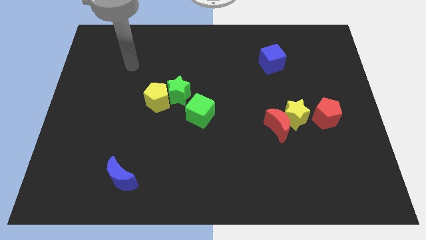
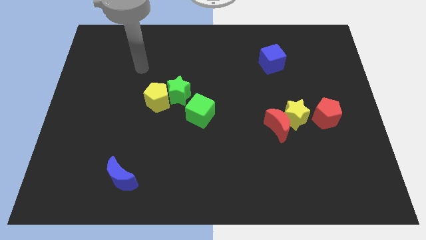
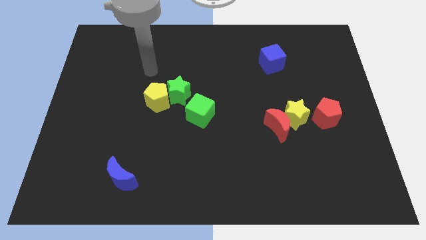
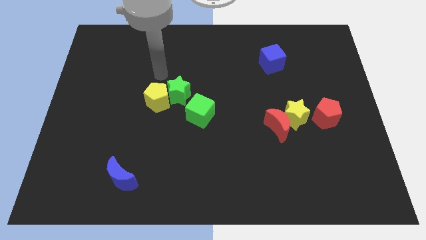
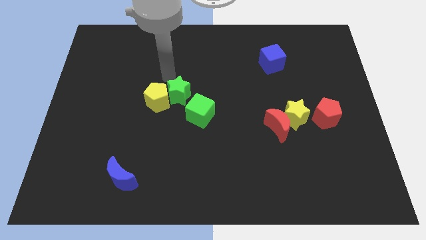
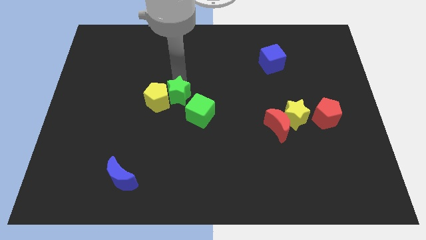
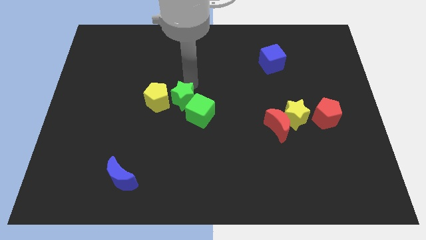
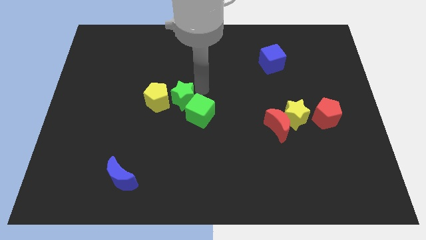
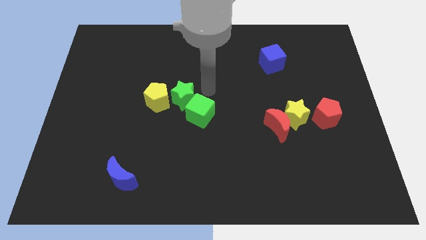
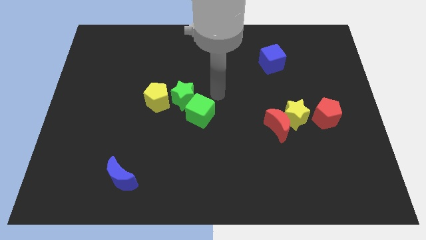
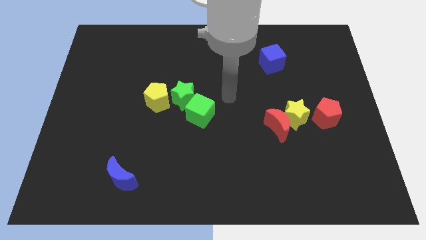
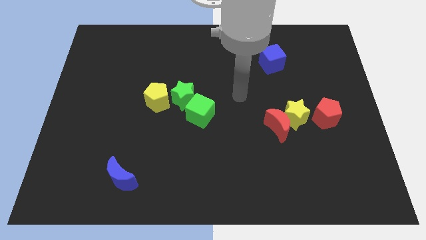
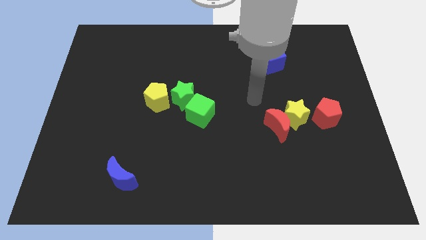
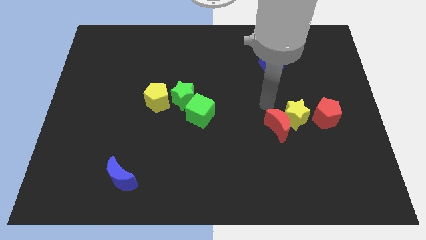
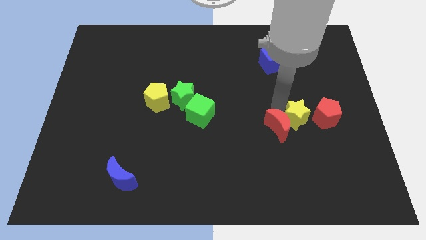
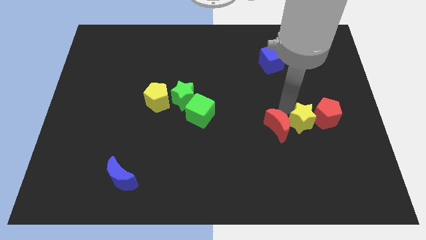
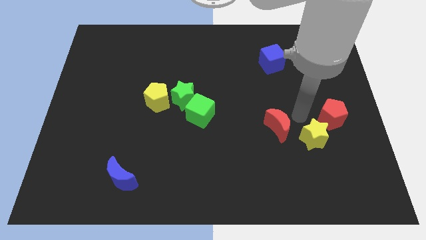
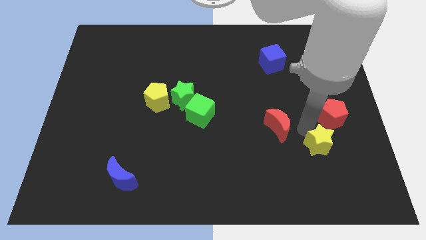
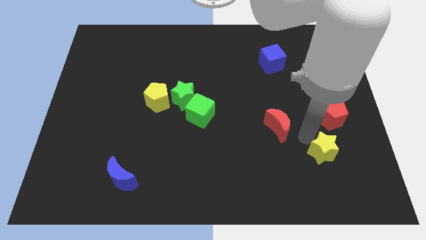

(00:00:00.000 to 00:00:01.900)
move the red moon away from the yellow star

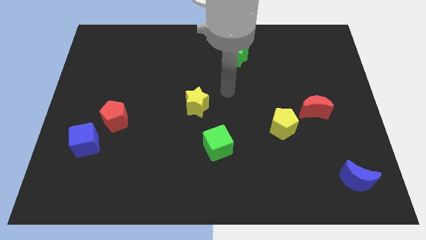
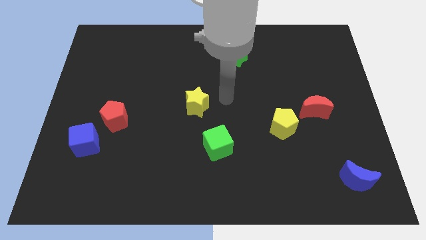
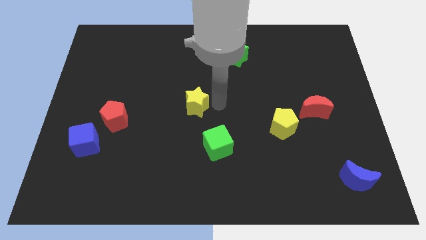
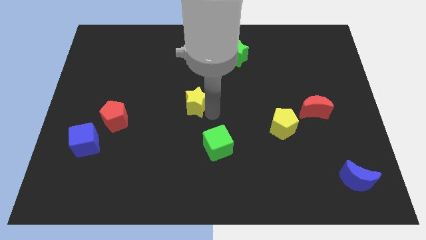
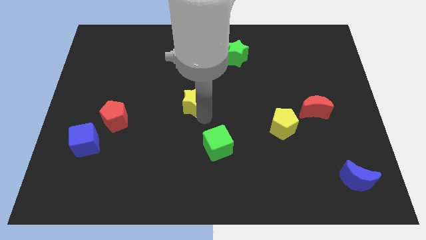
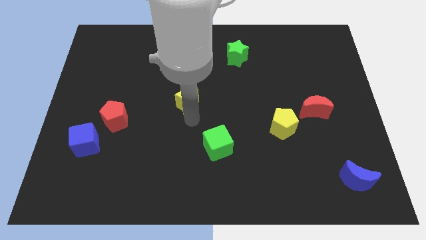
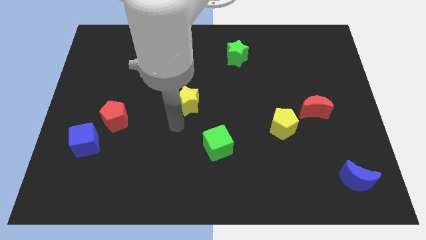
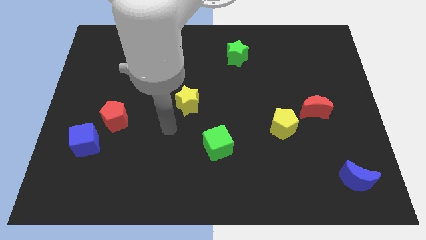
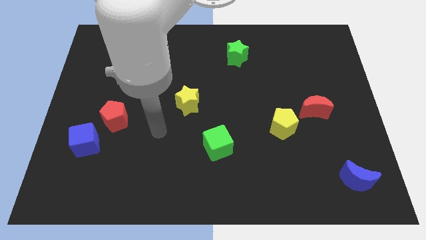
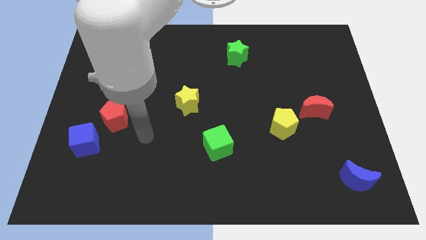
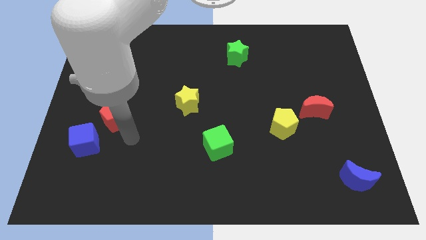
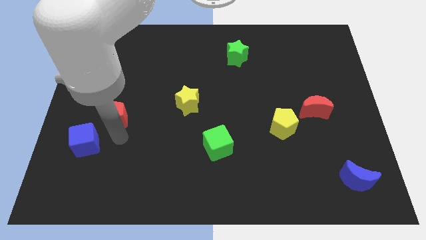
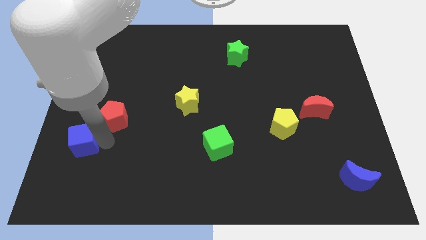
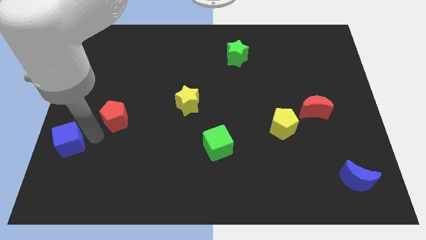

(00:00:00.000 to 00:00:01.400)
pull the red pentagon apart from the blue cube

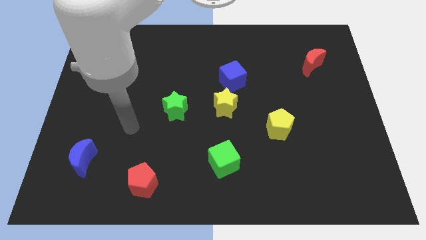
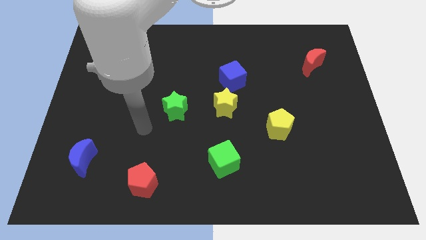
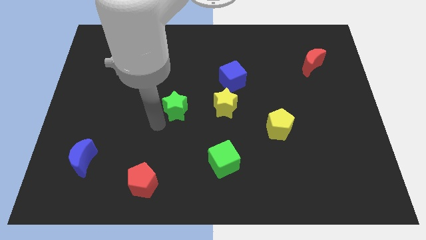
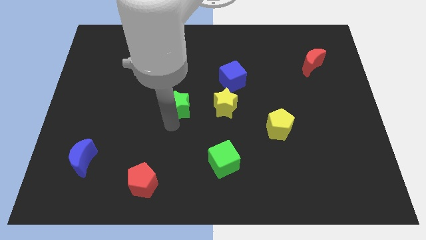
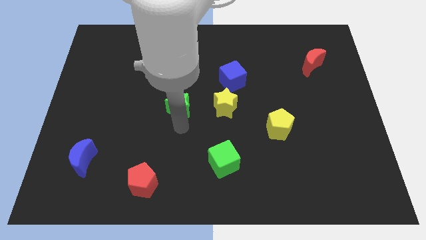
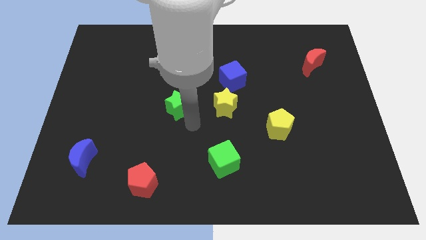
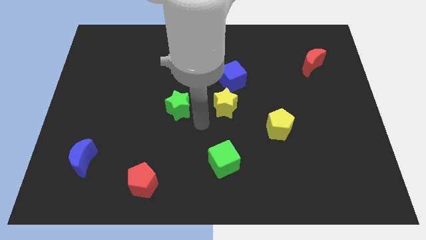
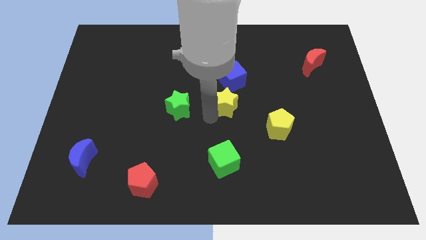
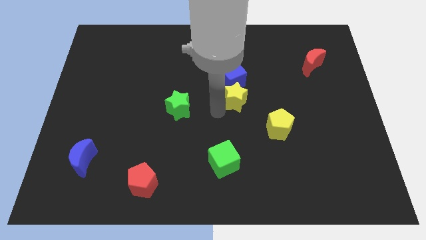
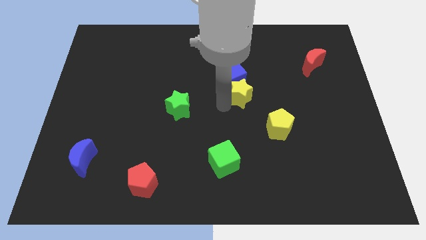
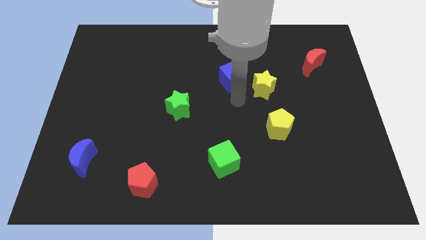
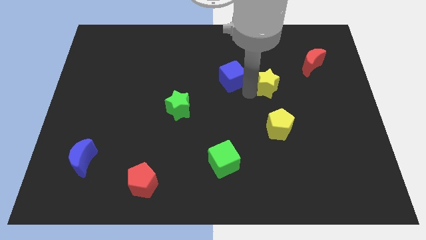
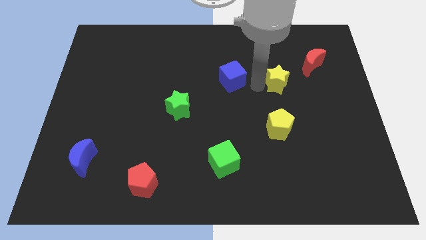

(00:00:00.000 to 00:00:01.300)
move the blue cube away from the yellow star

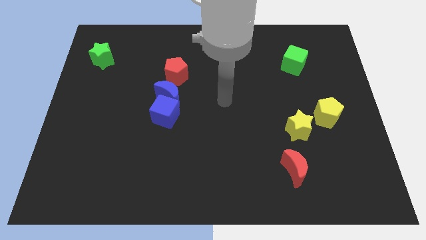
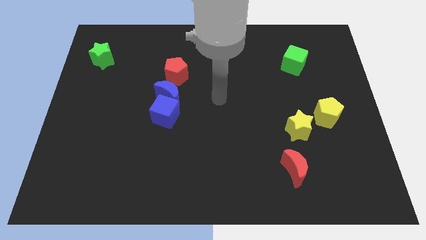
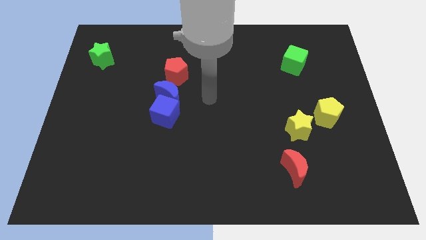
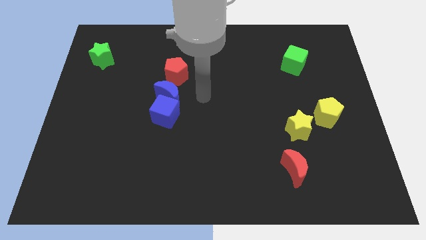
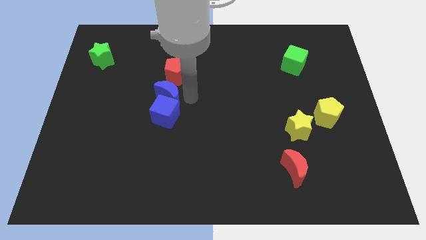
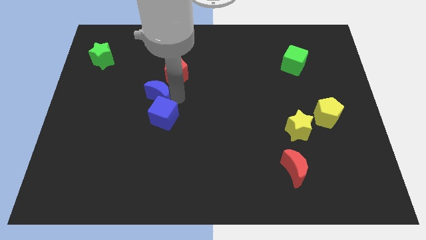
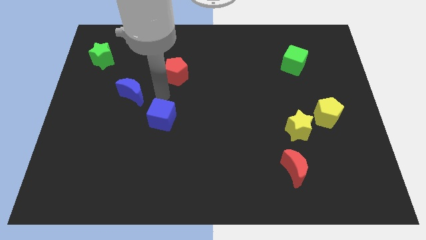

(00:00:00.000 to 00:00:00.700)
move the blue cube away from the blue moon

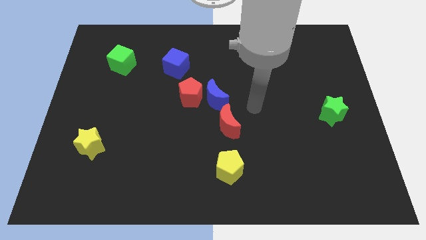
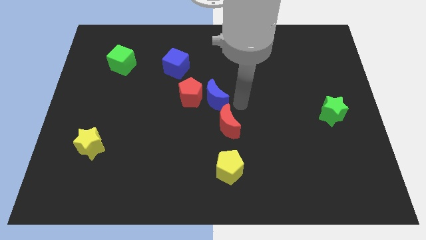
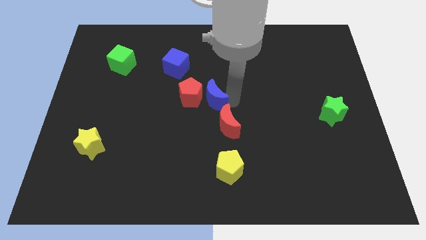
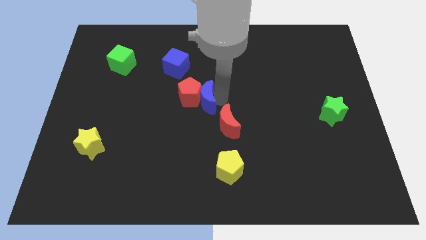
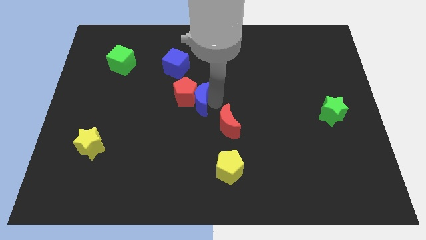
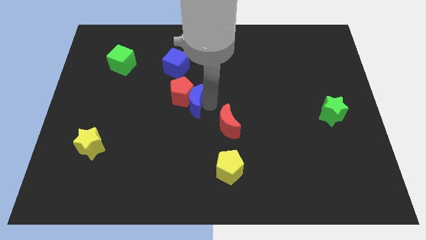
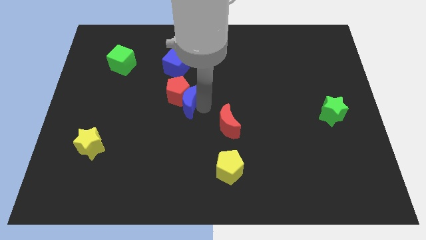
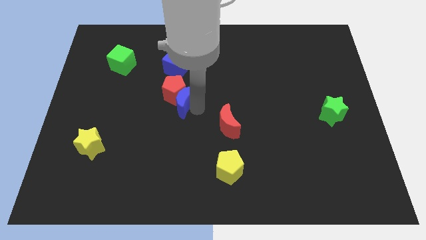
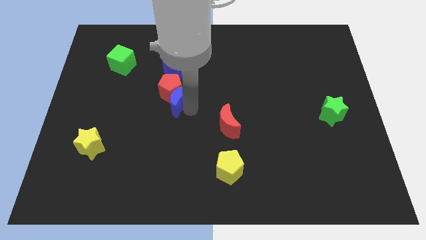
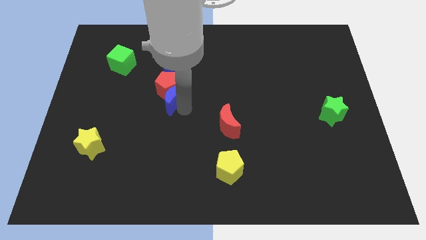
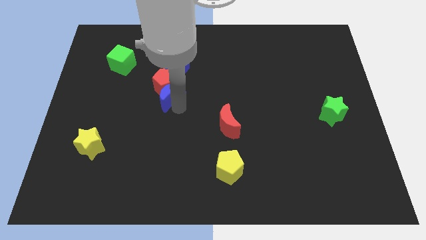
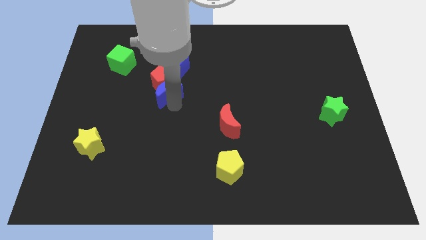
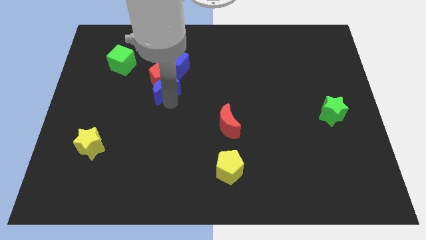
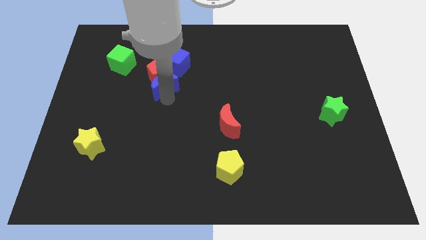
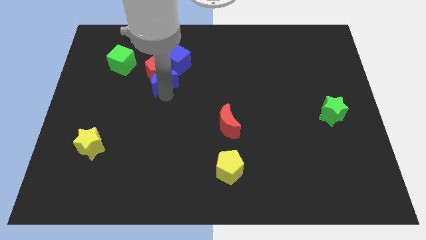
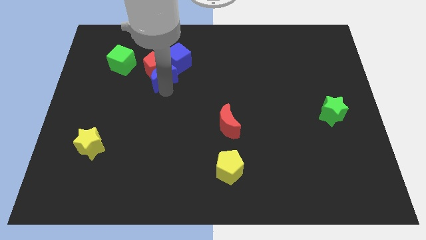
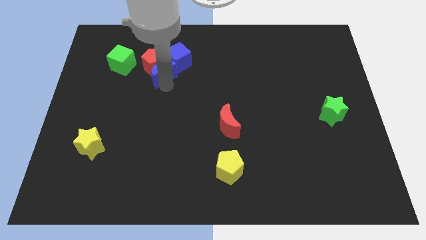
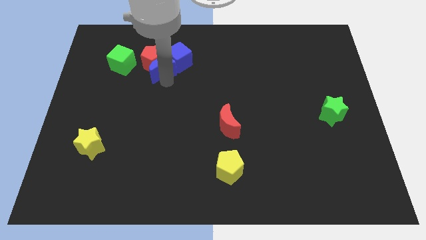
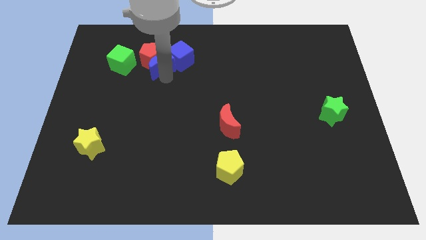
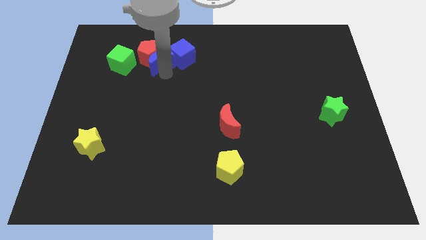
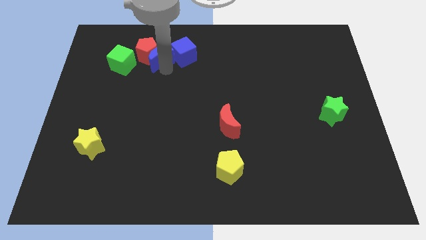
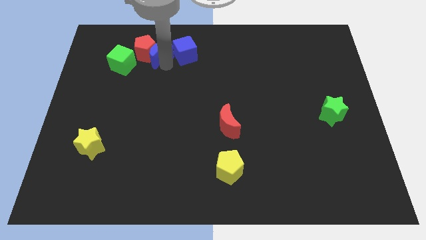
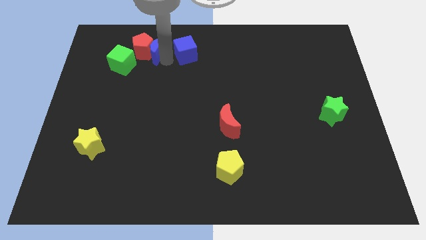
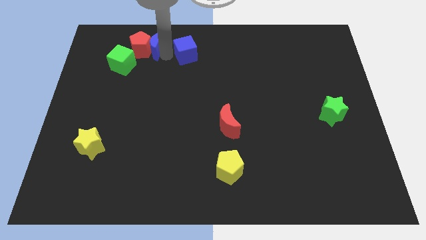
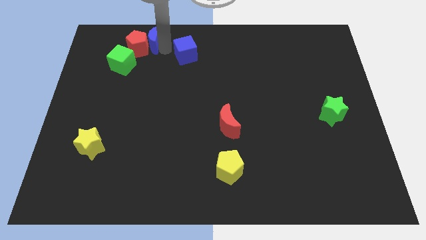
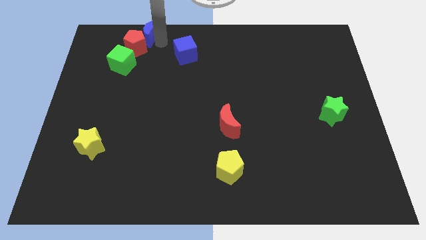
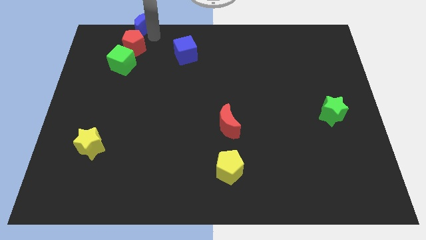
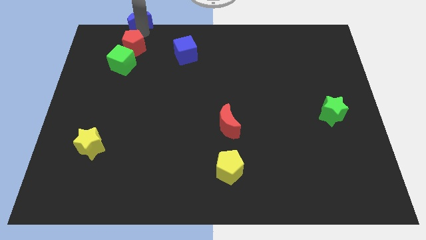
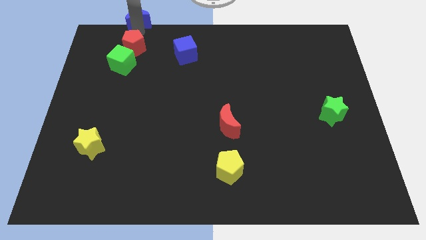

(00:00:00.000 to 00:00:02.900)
separate the red pentagon from the blue moon

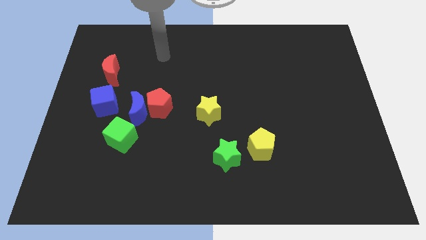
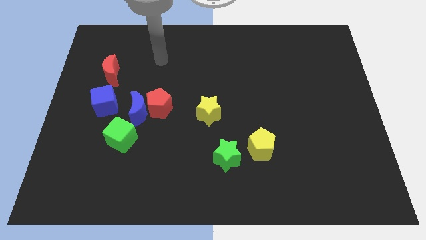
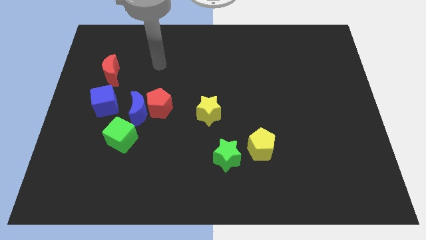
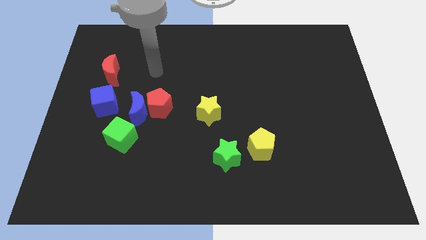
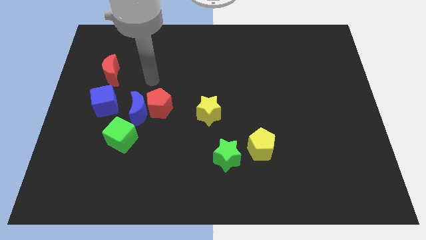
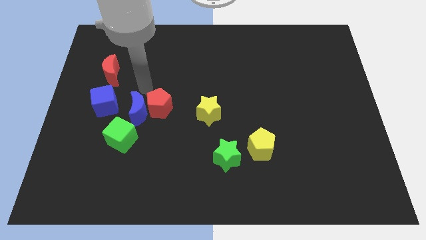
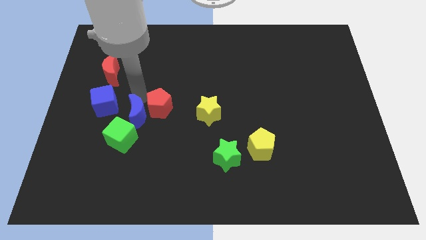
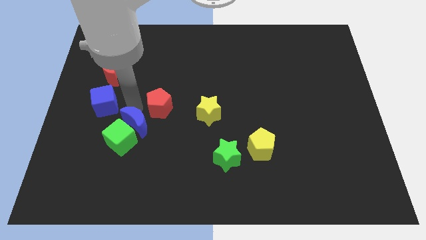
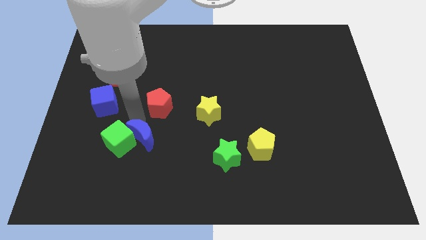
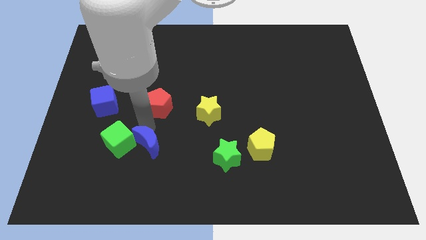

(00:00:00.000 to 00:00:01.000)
pull the red pentagon apart from the blue moon
